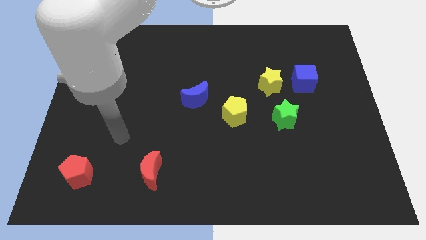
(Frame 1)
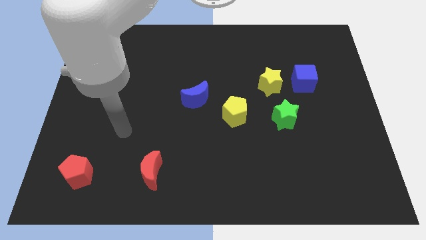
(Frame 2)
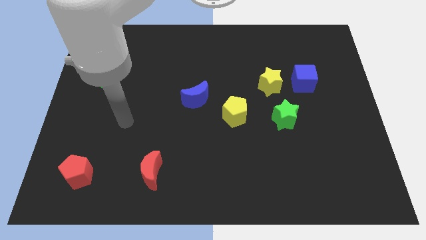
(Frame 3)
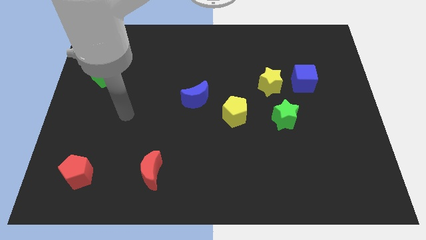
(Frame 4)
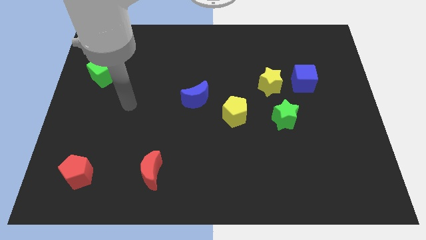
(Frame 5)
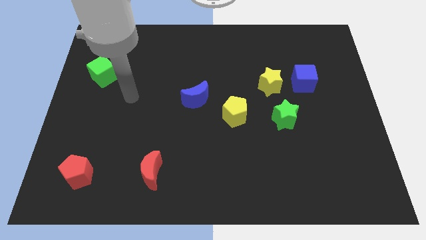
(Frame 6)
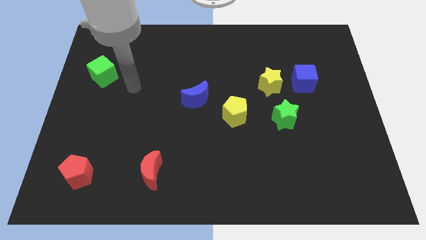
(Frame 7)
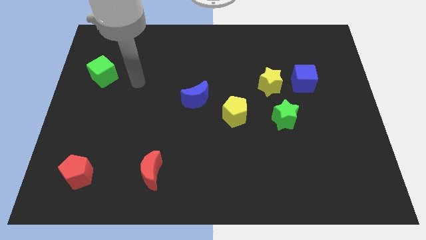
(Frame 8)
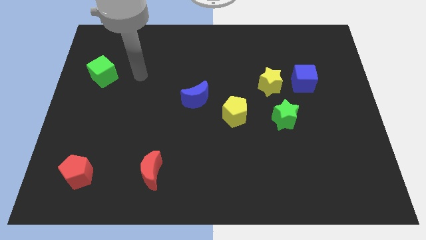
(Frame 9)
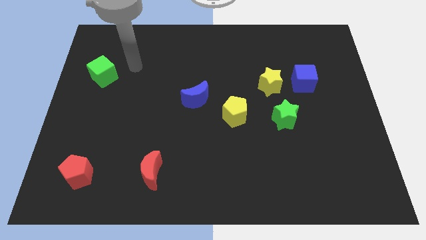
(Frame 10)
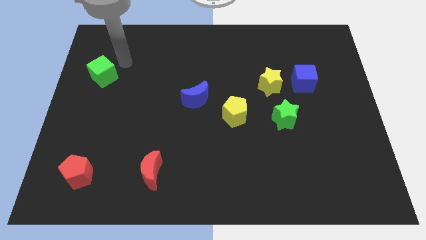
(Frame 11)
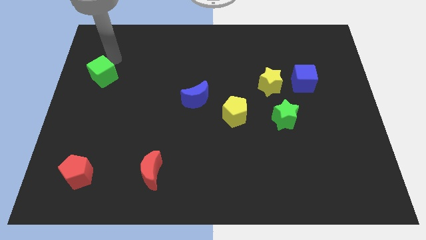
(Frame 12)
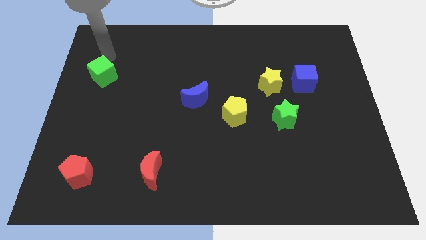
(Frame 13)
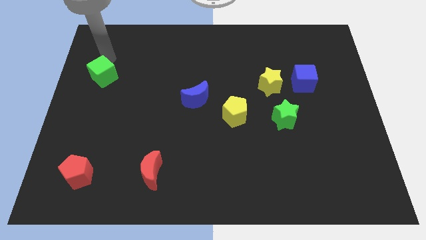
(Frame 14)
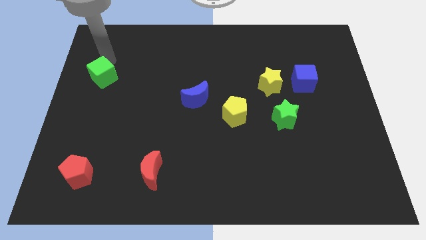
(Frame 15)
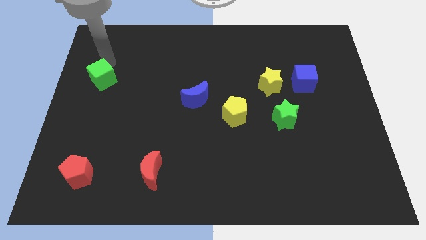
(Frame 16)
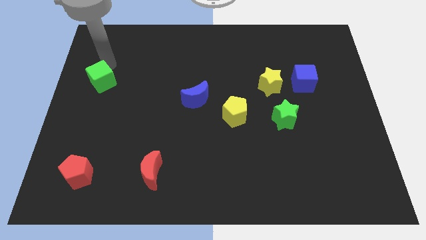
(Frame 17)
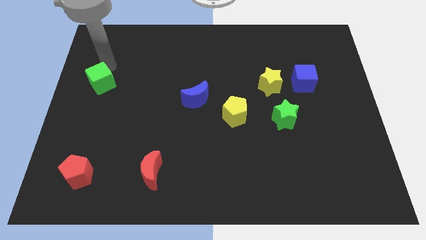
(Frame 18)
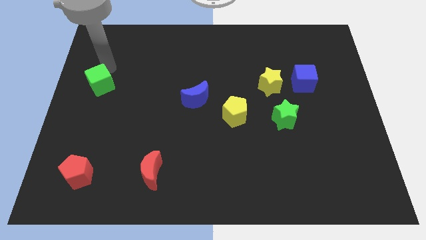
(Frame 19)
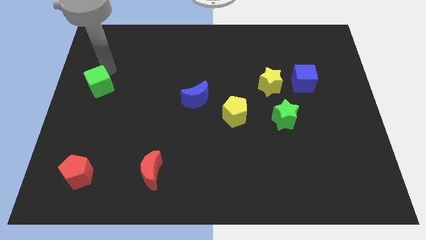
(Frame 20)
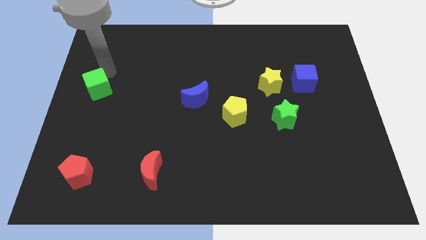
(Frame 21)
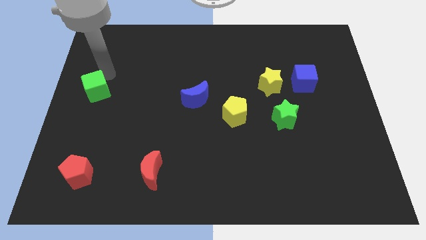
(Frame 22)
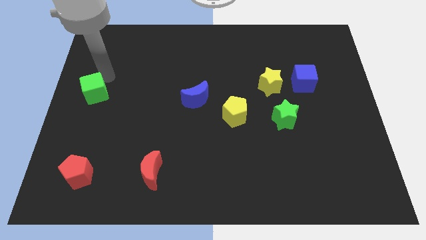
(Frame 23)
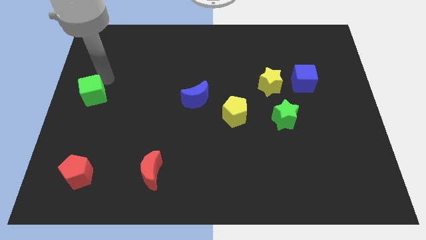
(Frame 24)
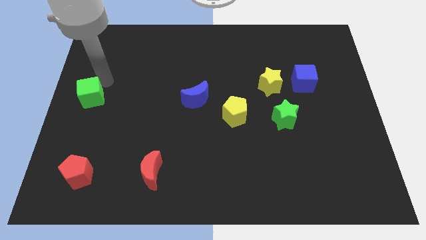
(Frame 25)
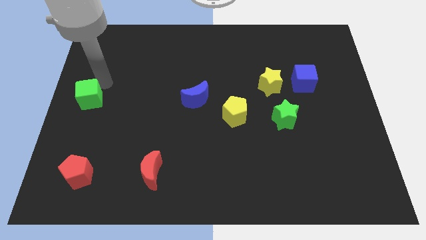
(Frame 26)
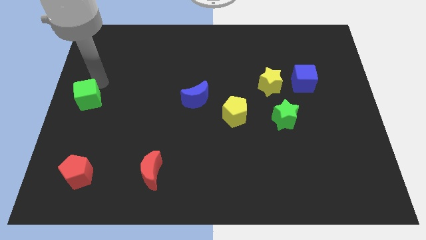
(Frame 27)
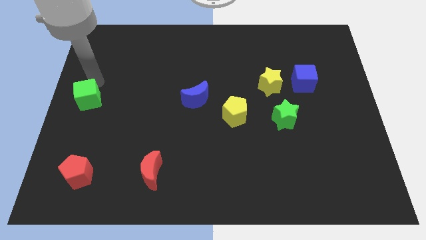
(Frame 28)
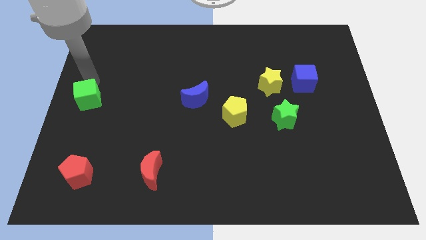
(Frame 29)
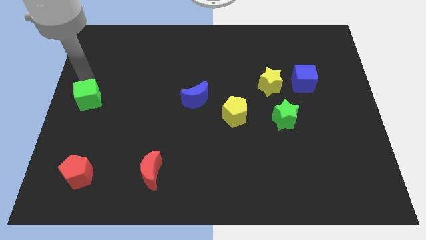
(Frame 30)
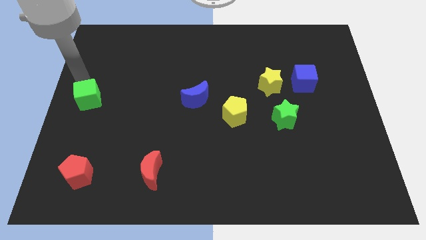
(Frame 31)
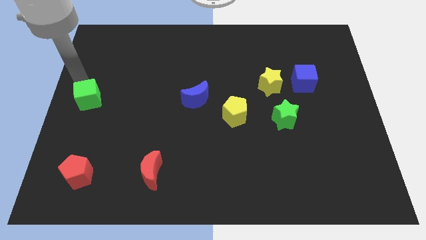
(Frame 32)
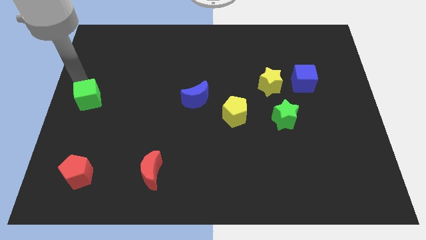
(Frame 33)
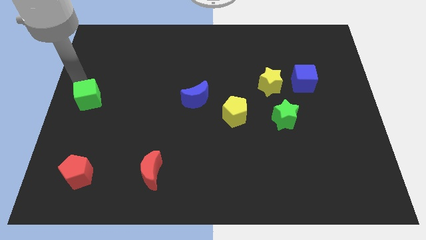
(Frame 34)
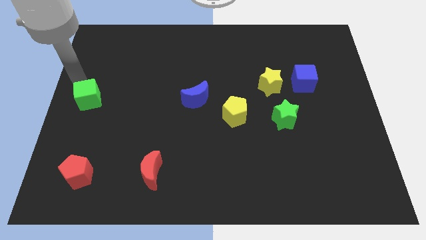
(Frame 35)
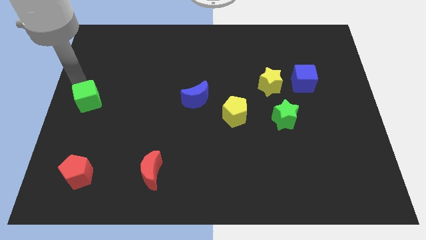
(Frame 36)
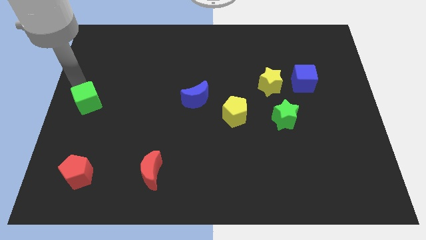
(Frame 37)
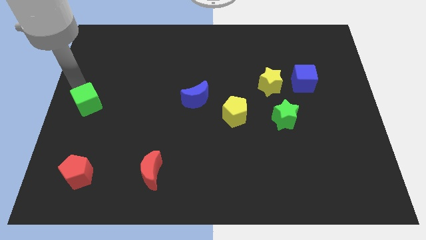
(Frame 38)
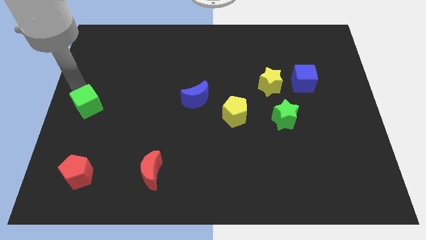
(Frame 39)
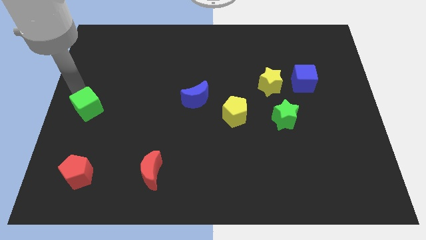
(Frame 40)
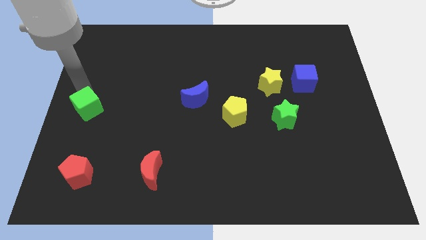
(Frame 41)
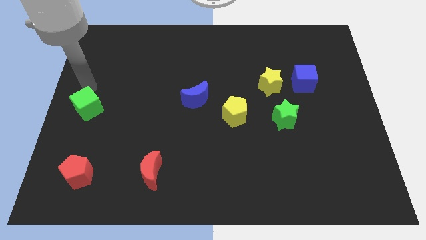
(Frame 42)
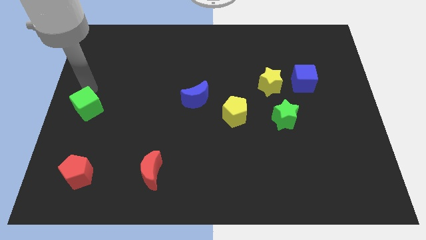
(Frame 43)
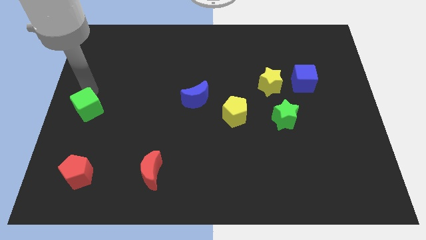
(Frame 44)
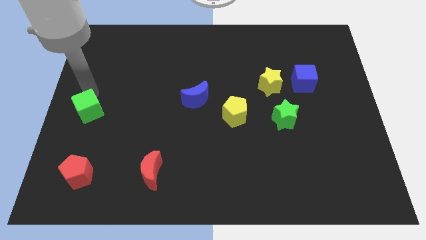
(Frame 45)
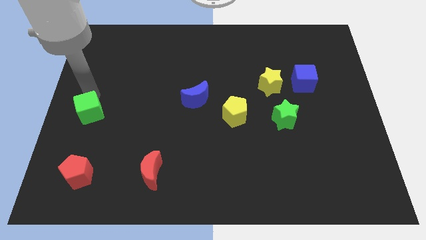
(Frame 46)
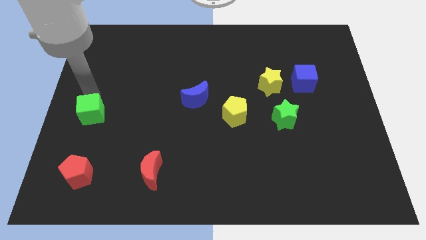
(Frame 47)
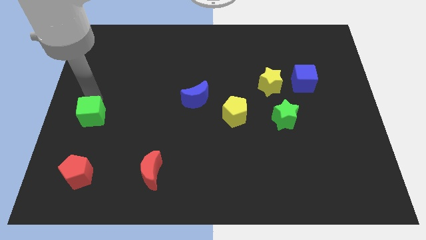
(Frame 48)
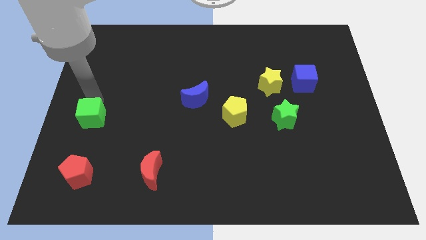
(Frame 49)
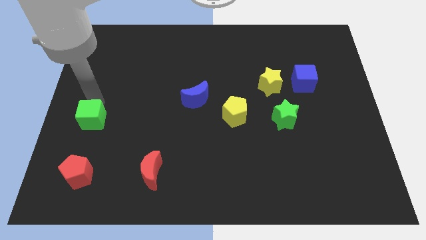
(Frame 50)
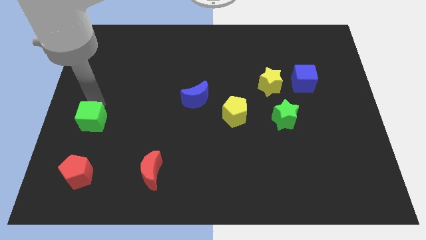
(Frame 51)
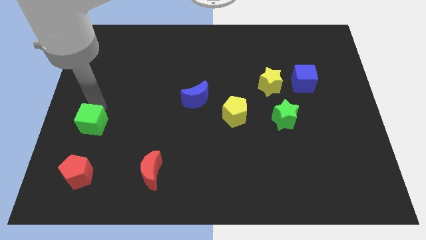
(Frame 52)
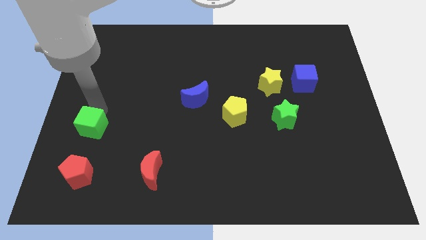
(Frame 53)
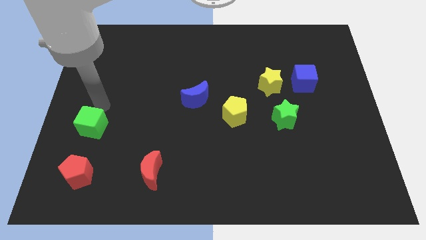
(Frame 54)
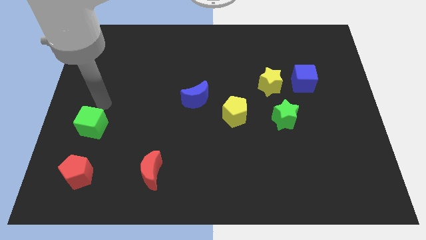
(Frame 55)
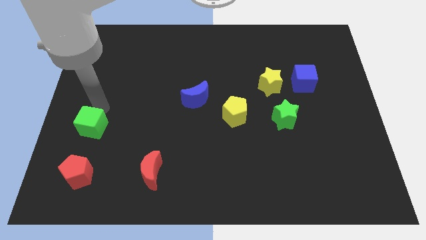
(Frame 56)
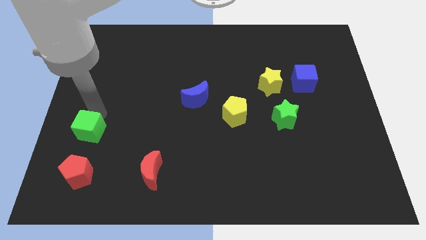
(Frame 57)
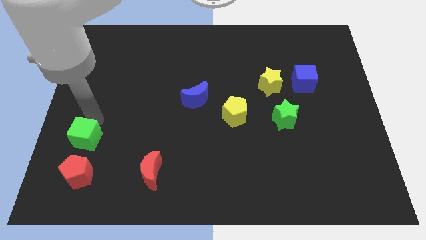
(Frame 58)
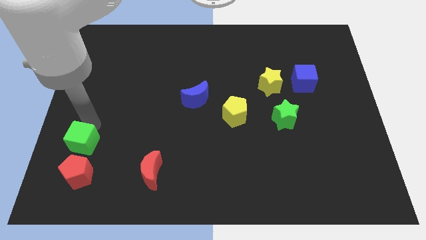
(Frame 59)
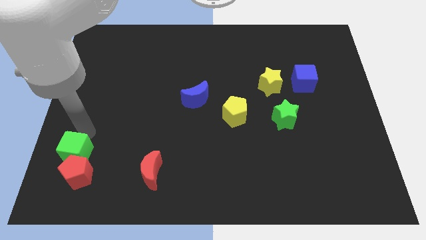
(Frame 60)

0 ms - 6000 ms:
slide the green cube to the red pentagon

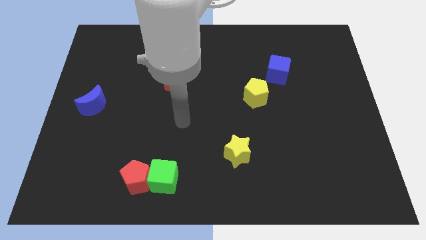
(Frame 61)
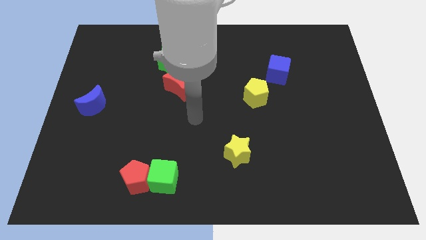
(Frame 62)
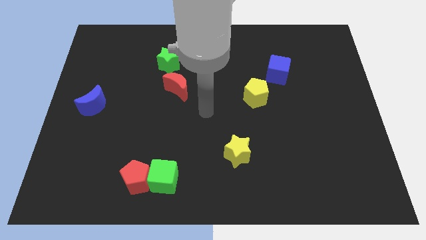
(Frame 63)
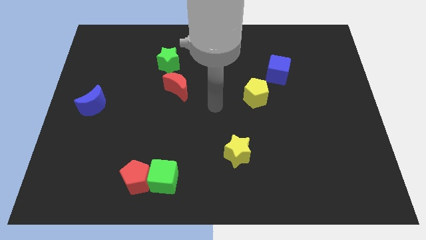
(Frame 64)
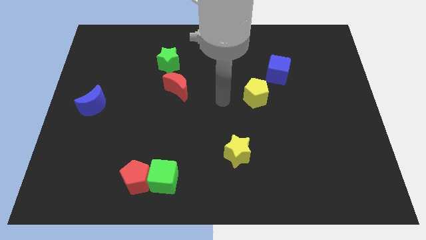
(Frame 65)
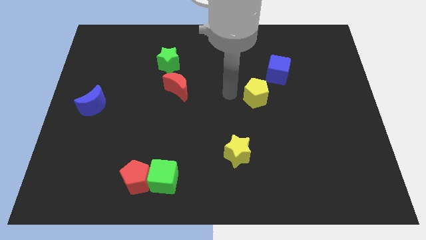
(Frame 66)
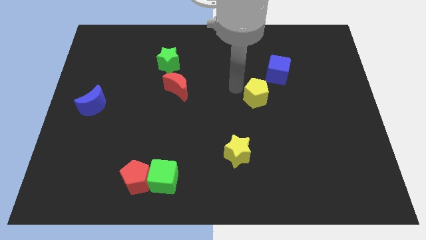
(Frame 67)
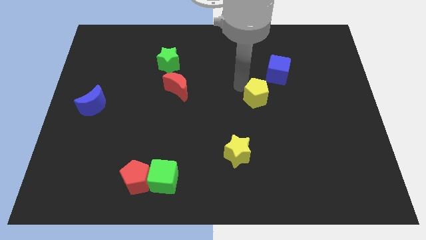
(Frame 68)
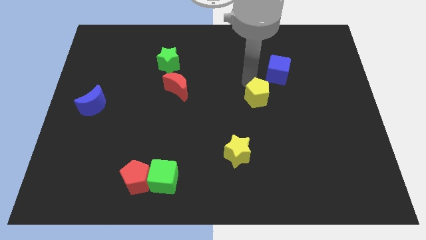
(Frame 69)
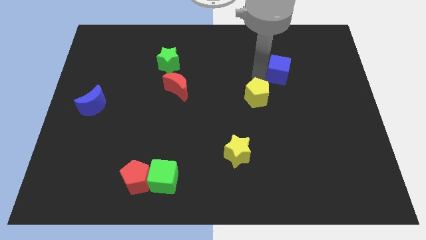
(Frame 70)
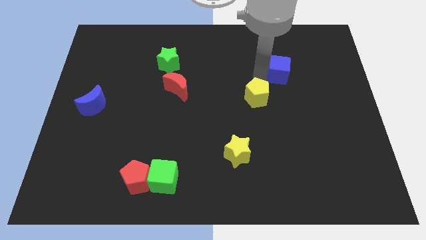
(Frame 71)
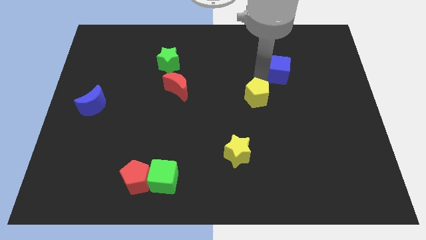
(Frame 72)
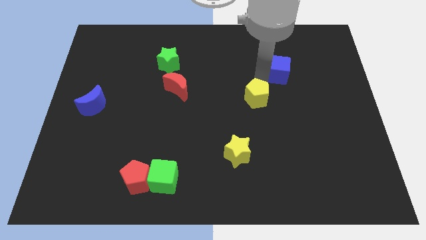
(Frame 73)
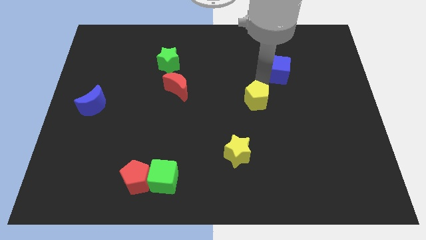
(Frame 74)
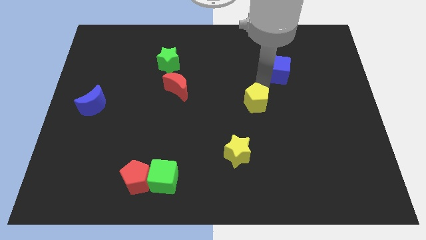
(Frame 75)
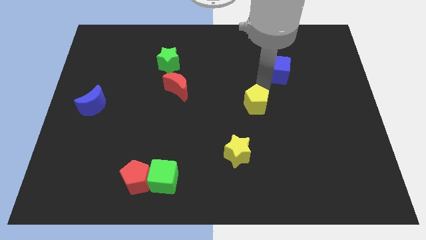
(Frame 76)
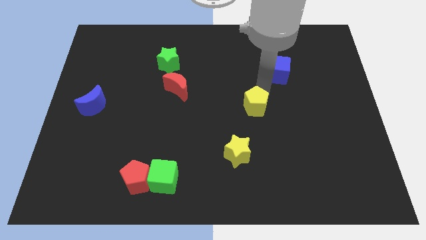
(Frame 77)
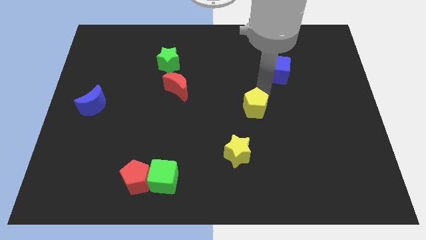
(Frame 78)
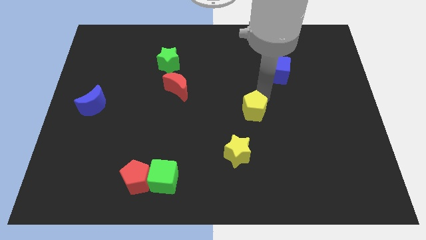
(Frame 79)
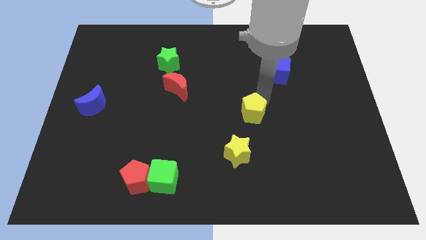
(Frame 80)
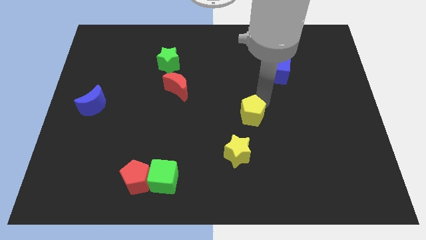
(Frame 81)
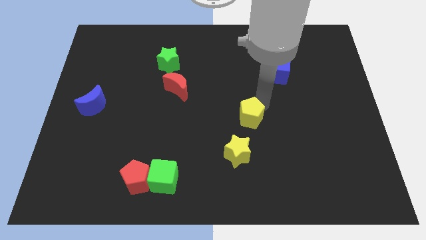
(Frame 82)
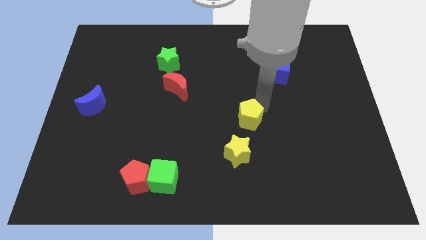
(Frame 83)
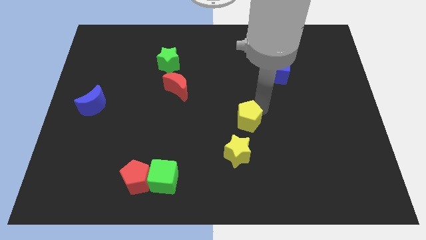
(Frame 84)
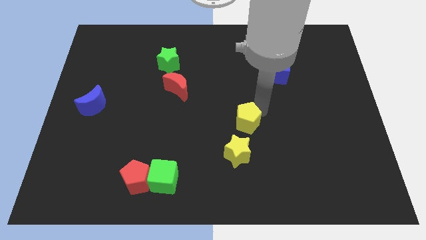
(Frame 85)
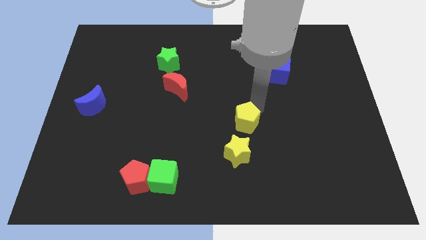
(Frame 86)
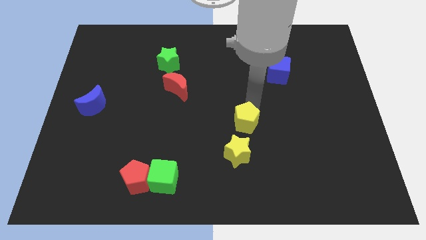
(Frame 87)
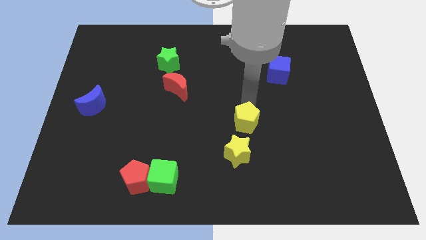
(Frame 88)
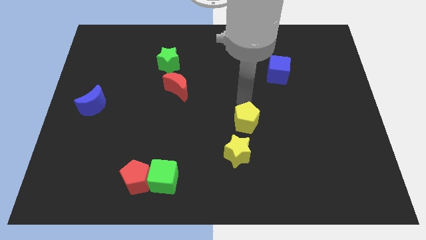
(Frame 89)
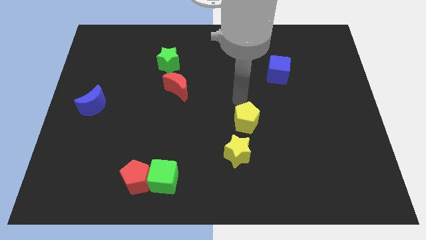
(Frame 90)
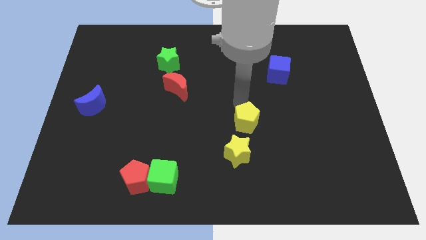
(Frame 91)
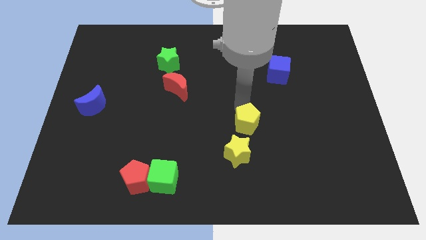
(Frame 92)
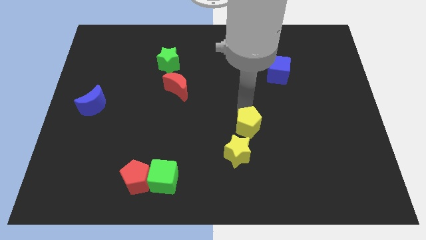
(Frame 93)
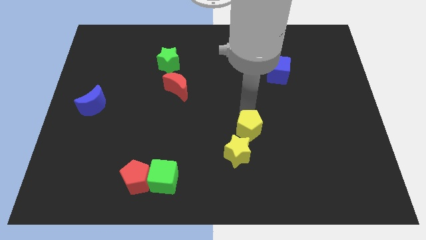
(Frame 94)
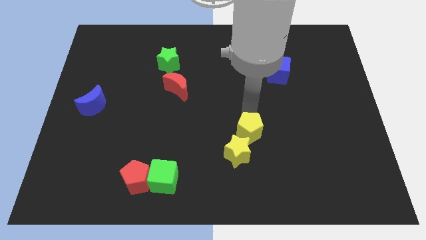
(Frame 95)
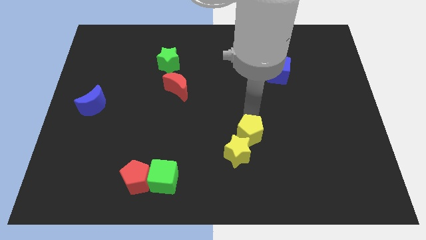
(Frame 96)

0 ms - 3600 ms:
put the yellow pentagon next to the yellow star
